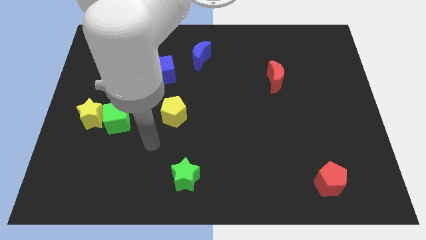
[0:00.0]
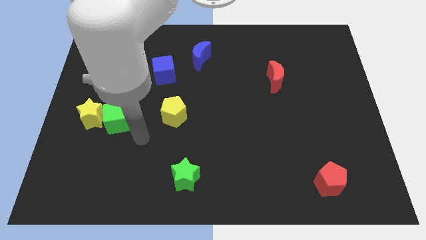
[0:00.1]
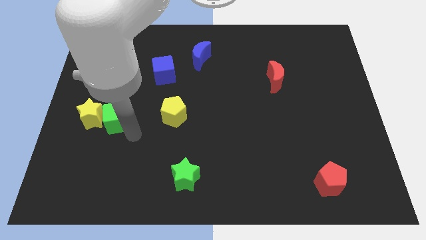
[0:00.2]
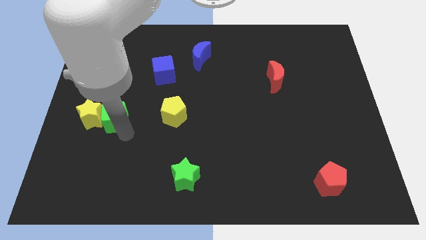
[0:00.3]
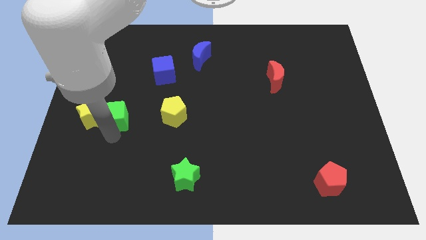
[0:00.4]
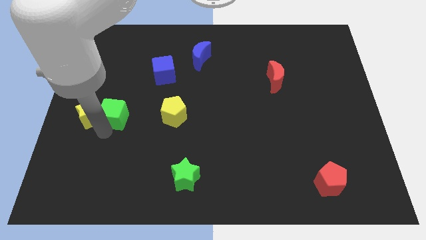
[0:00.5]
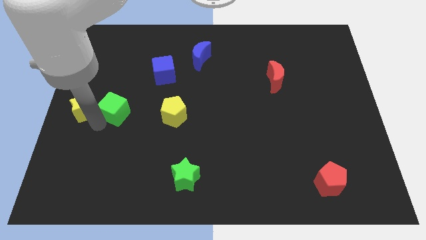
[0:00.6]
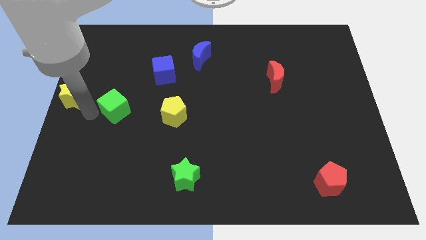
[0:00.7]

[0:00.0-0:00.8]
pull the green cube apart from the yellow star

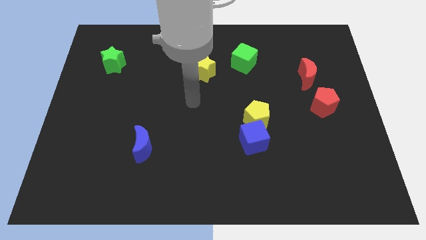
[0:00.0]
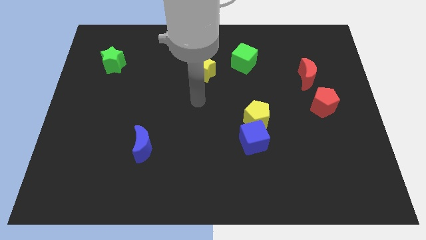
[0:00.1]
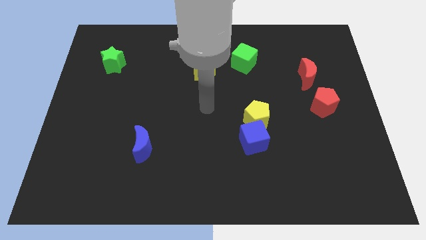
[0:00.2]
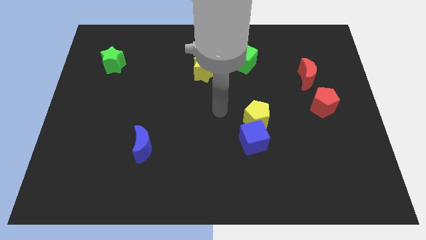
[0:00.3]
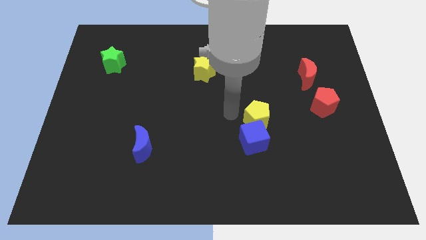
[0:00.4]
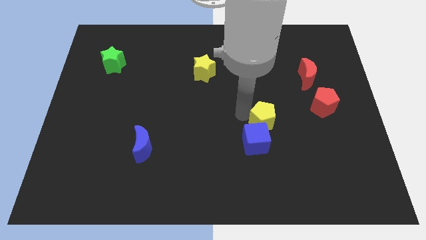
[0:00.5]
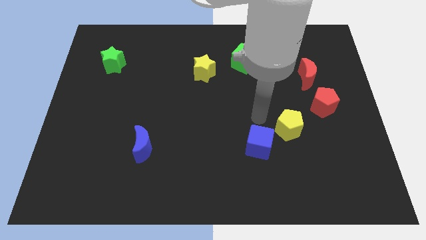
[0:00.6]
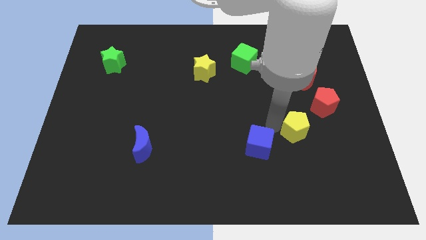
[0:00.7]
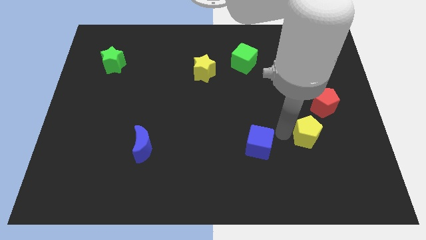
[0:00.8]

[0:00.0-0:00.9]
pull the blue cube apart from the yellow pentagon

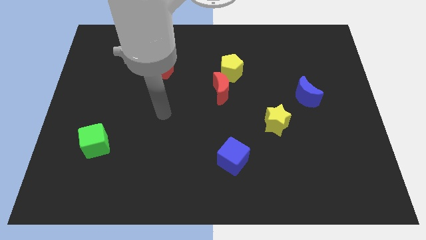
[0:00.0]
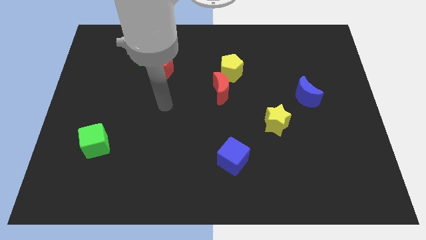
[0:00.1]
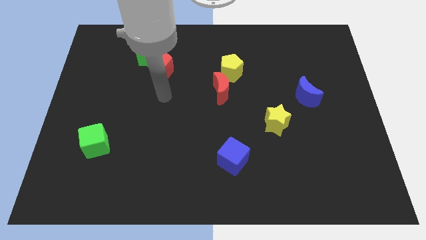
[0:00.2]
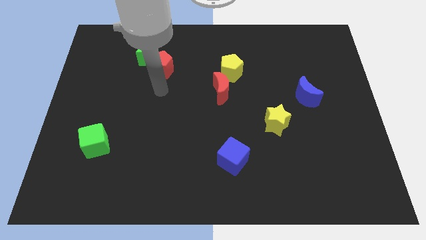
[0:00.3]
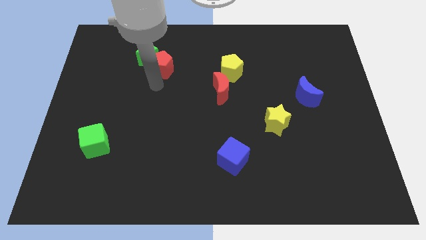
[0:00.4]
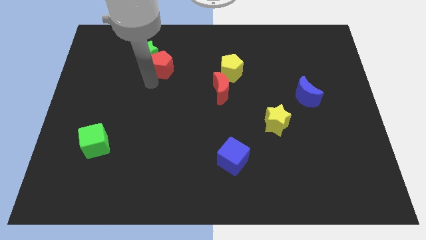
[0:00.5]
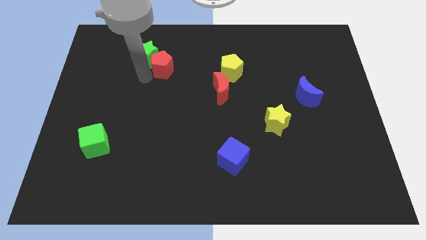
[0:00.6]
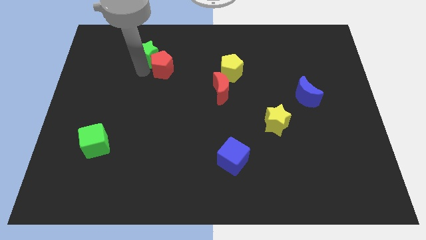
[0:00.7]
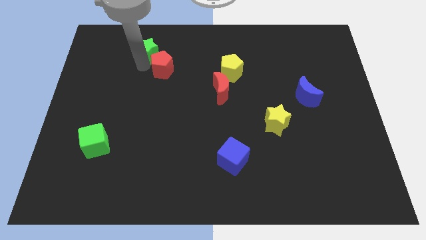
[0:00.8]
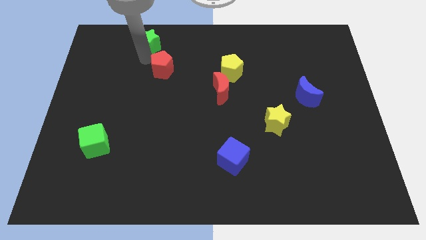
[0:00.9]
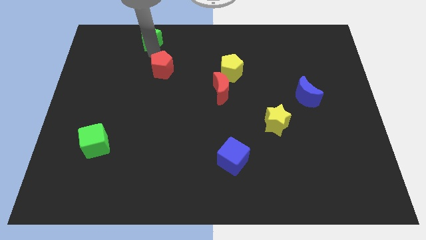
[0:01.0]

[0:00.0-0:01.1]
move the red pentagon away from the green star

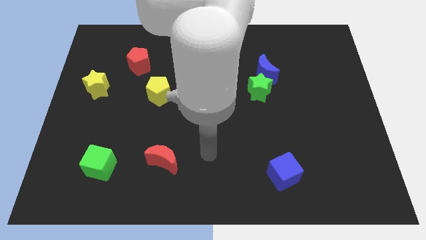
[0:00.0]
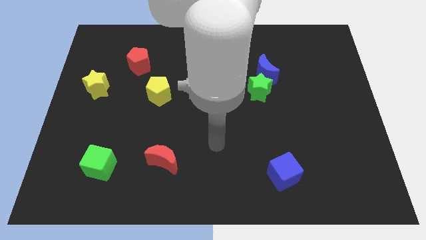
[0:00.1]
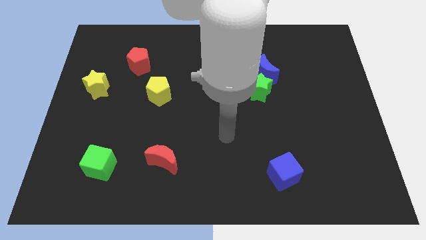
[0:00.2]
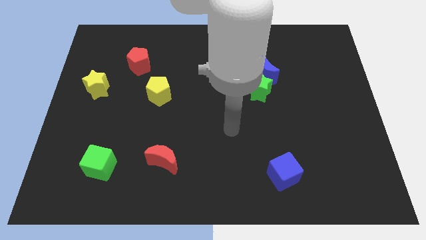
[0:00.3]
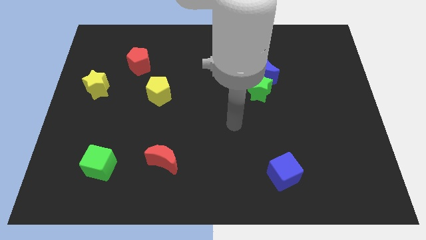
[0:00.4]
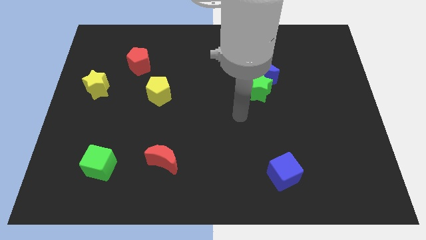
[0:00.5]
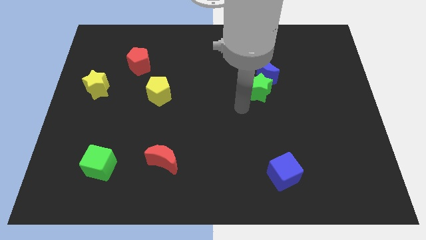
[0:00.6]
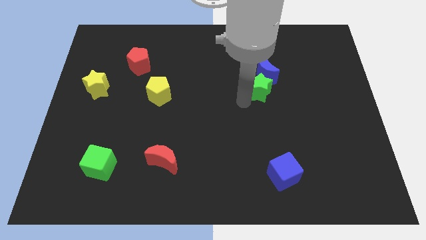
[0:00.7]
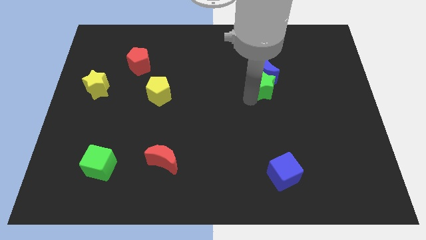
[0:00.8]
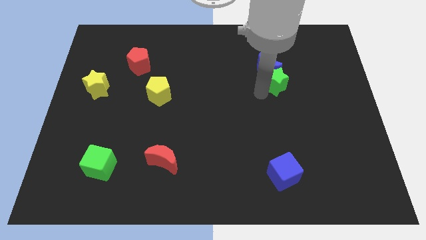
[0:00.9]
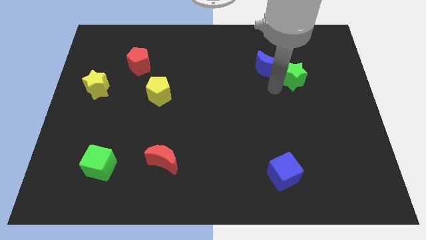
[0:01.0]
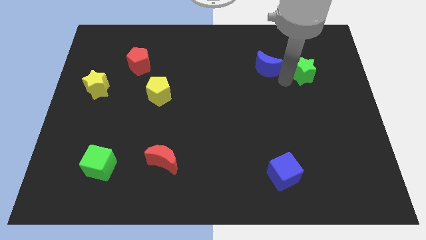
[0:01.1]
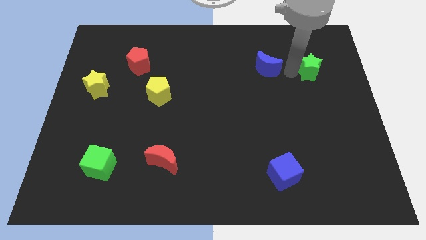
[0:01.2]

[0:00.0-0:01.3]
move the blue moon away from the green star

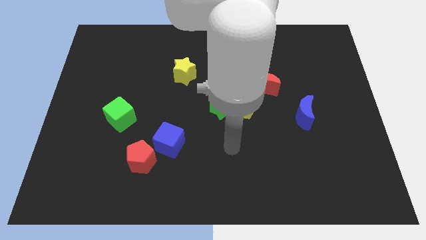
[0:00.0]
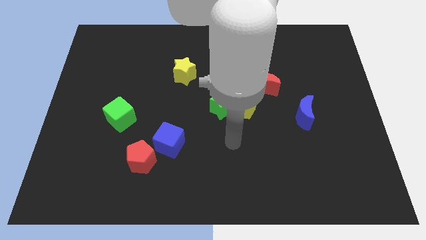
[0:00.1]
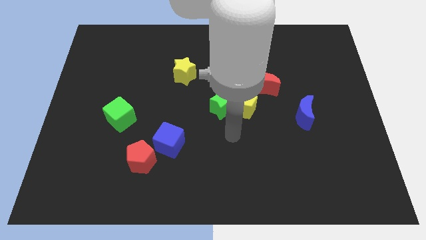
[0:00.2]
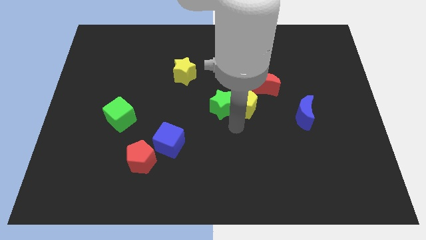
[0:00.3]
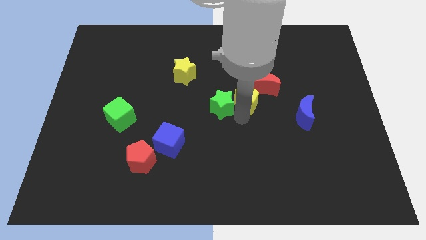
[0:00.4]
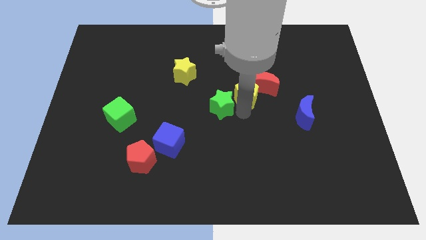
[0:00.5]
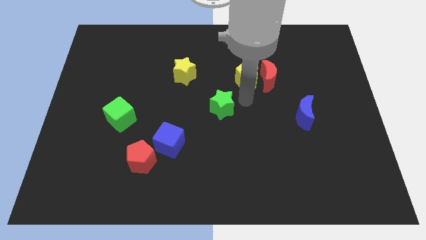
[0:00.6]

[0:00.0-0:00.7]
separate the green star from the yellow pentagon

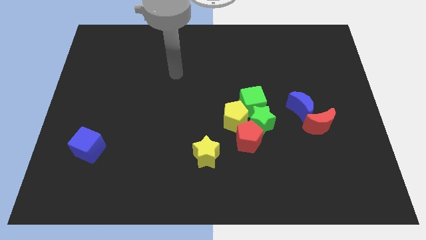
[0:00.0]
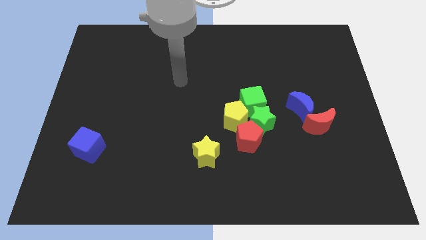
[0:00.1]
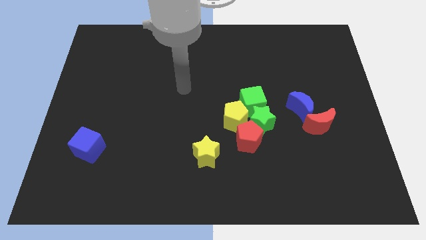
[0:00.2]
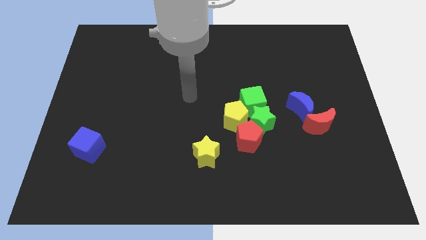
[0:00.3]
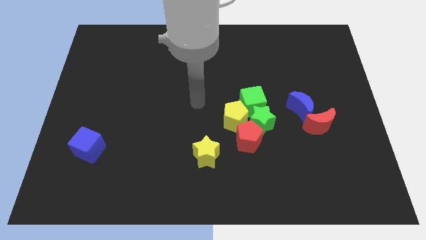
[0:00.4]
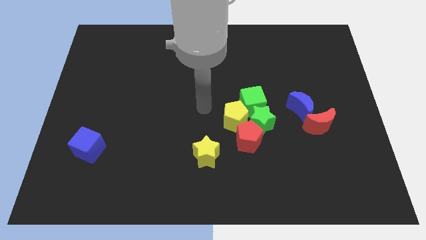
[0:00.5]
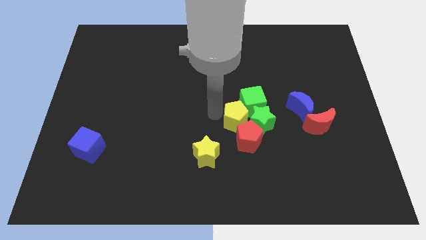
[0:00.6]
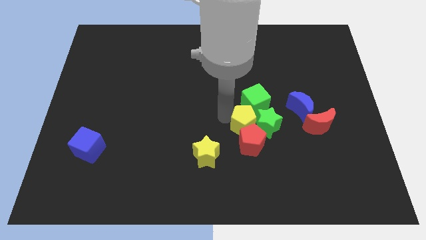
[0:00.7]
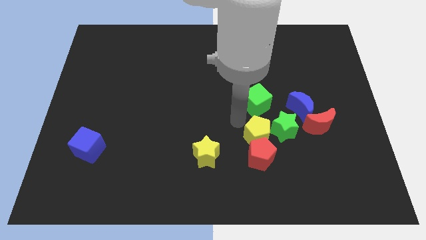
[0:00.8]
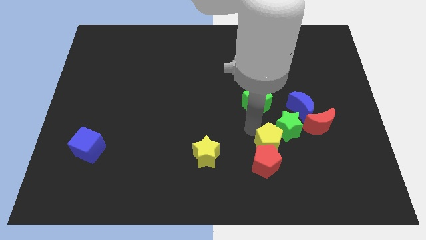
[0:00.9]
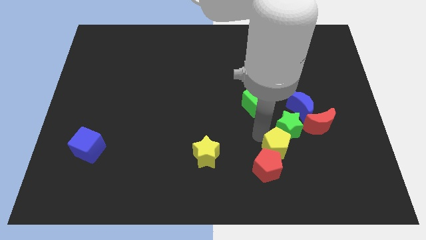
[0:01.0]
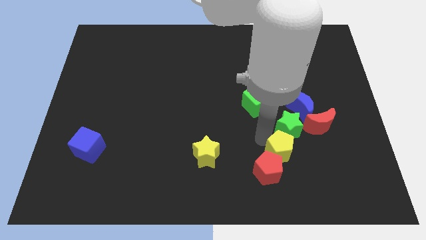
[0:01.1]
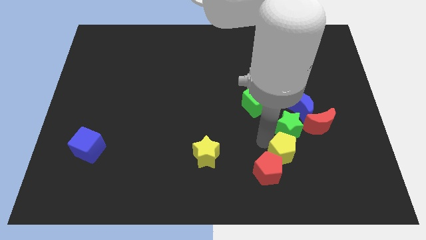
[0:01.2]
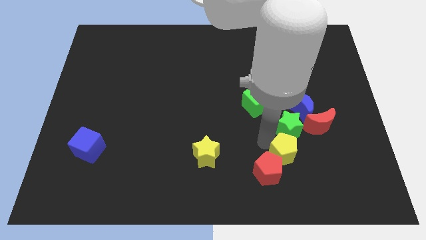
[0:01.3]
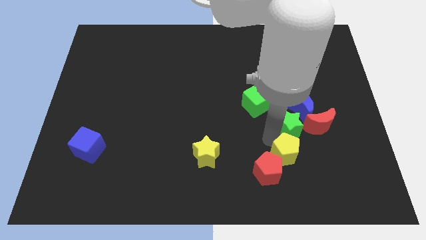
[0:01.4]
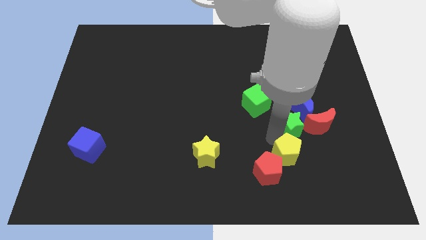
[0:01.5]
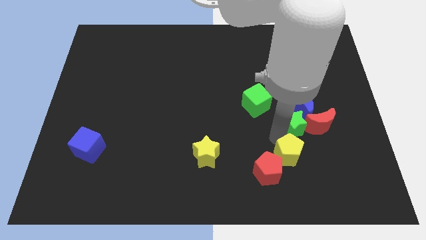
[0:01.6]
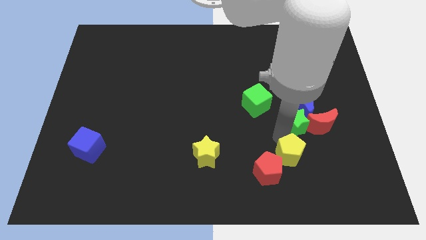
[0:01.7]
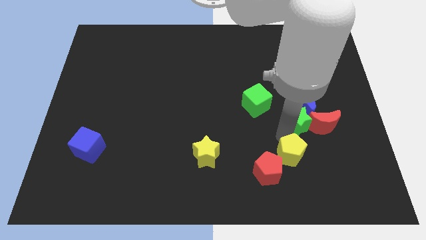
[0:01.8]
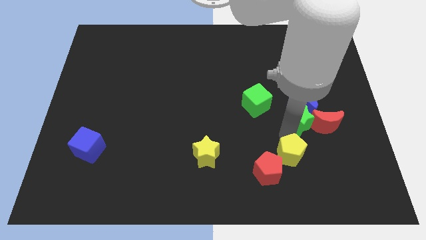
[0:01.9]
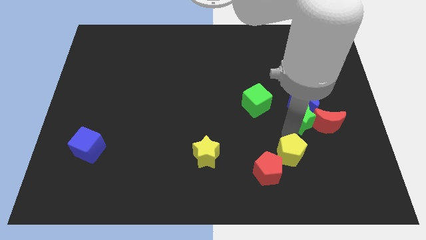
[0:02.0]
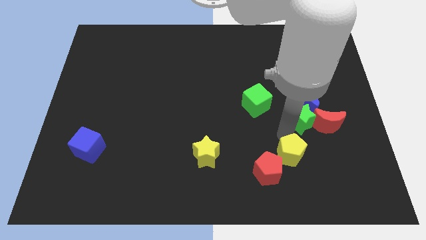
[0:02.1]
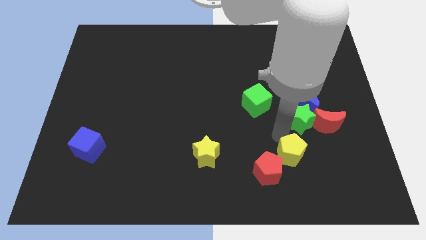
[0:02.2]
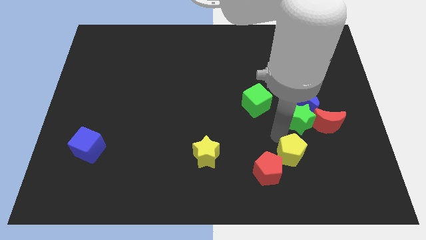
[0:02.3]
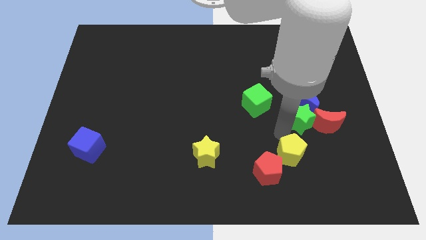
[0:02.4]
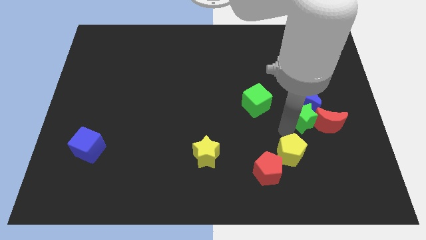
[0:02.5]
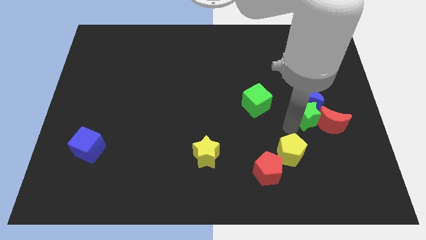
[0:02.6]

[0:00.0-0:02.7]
separate the green star from the green cube, red pentagon, and yellow pentagon

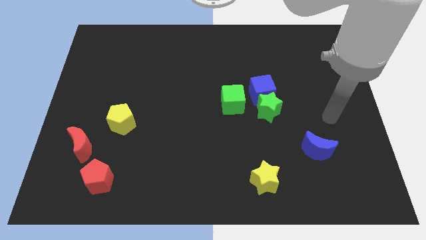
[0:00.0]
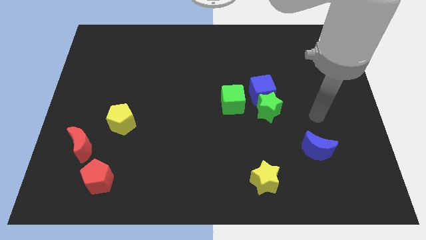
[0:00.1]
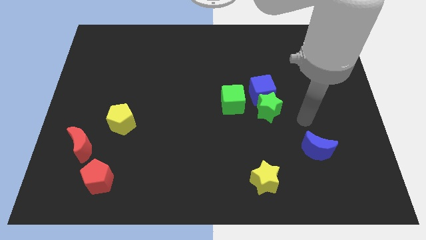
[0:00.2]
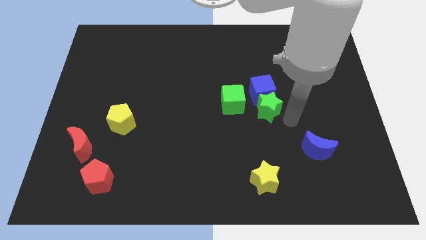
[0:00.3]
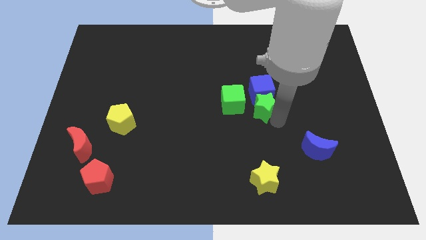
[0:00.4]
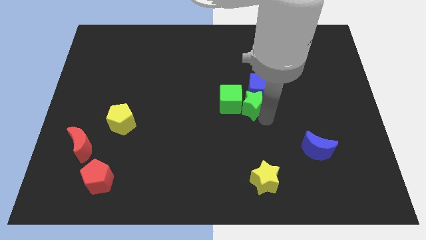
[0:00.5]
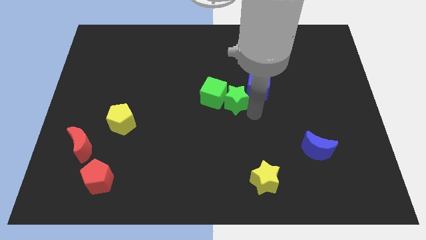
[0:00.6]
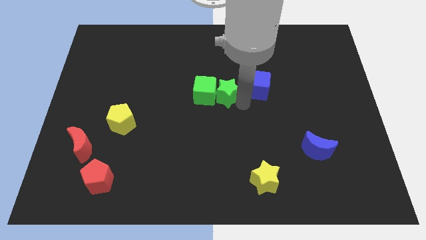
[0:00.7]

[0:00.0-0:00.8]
pull the blue cube apart from the green star and green cube

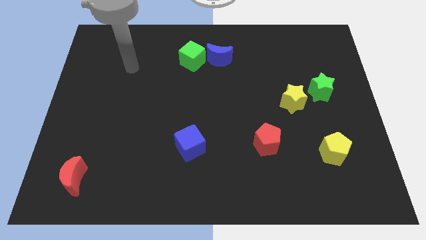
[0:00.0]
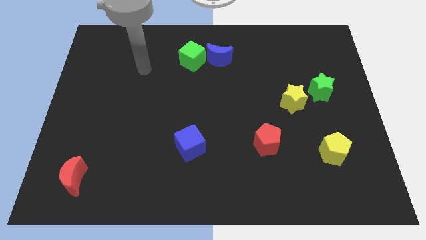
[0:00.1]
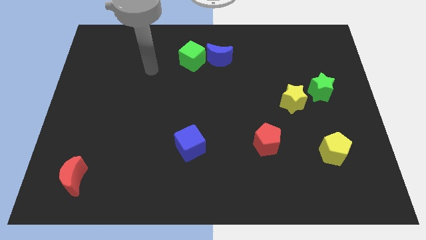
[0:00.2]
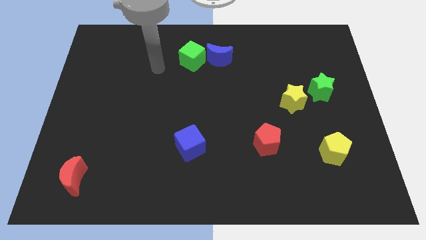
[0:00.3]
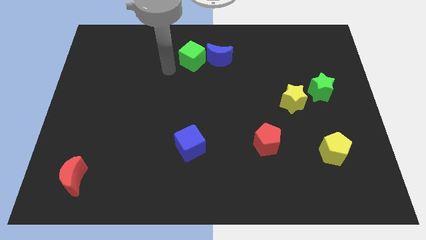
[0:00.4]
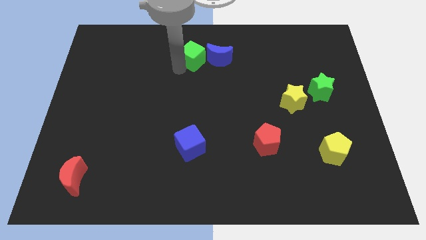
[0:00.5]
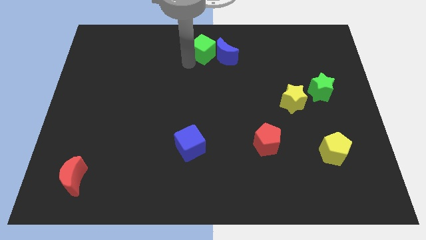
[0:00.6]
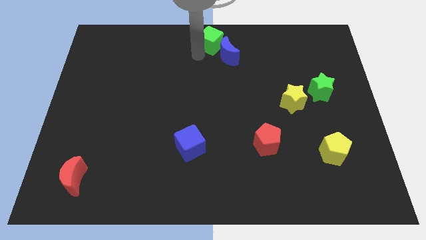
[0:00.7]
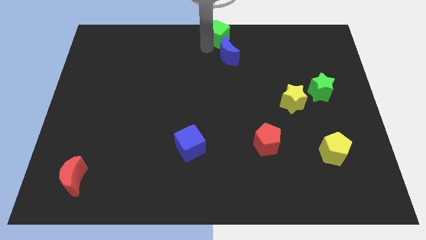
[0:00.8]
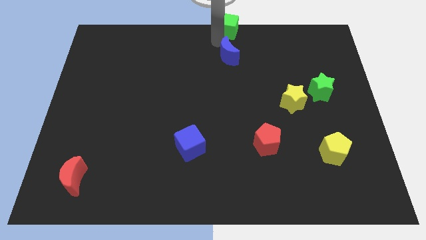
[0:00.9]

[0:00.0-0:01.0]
pull the blue moon apart from the green cube
